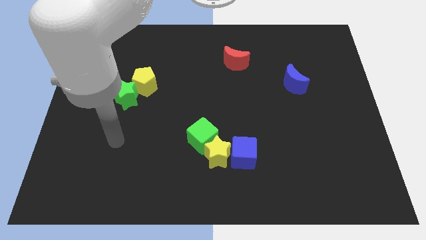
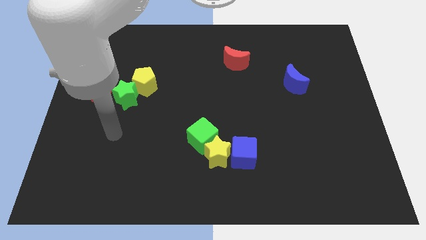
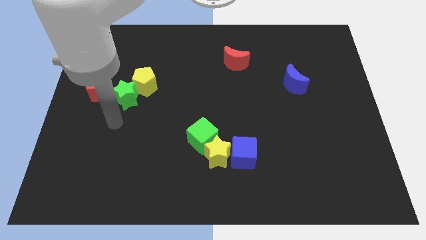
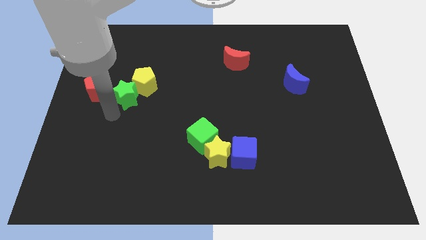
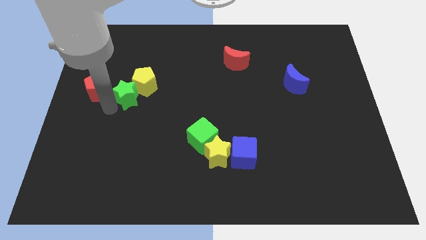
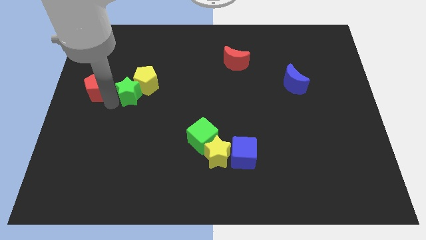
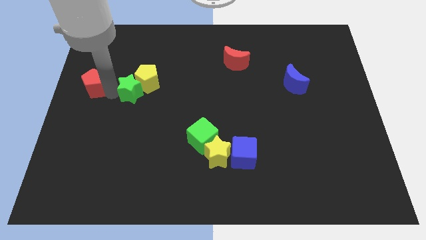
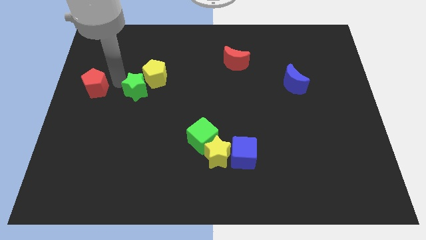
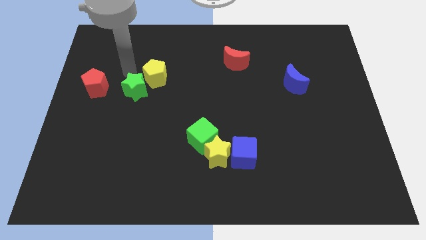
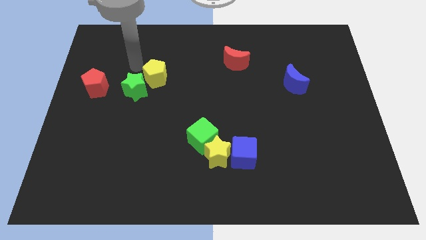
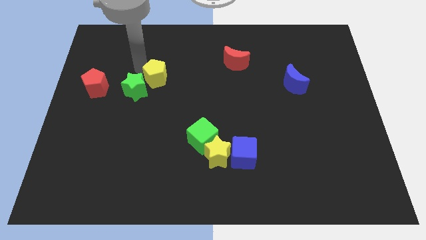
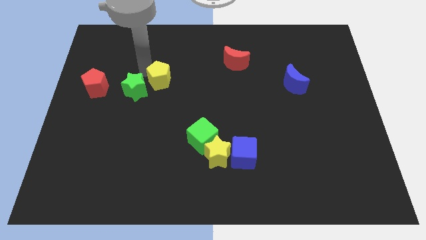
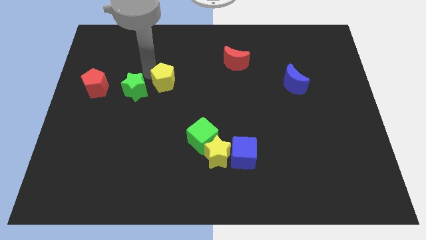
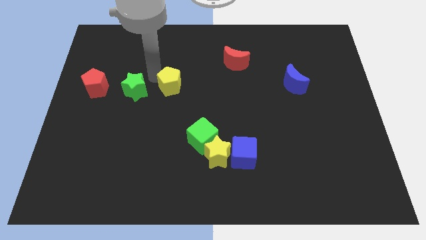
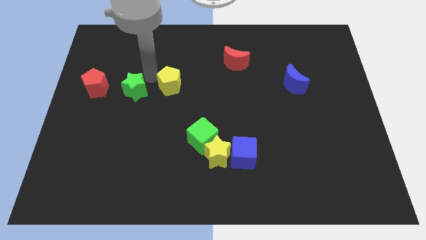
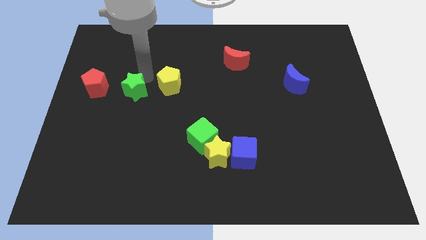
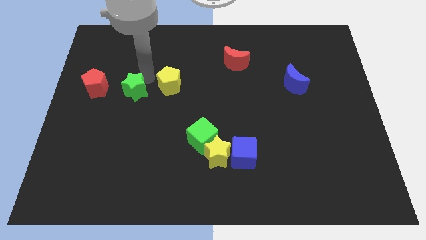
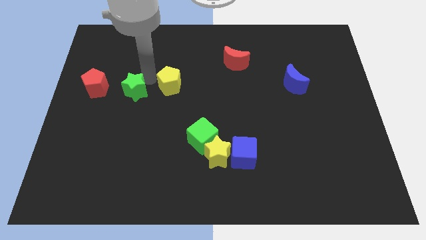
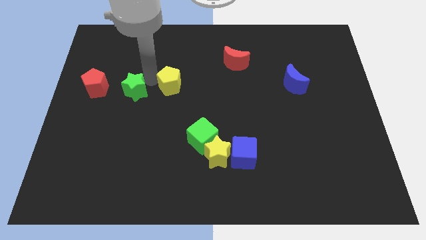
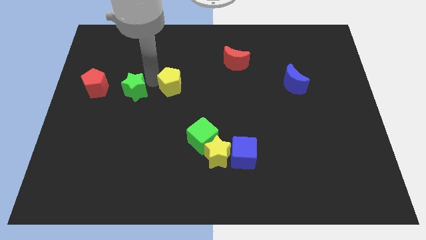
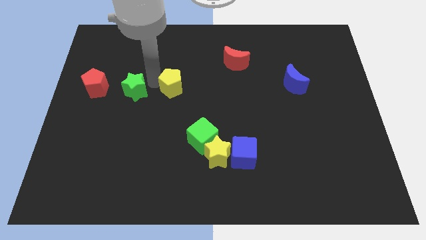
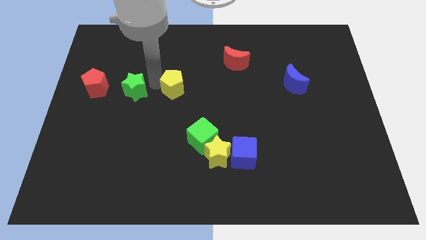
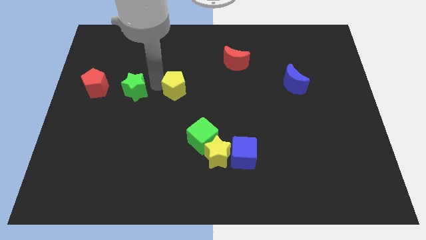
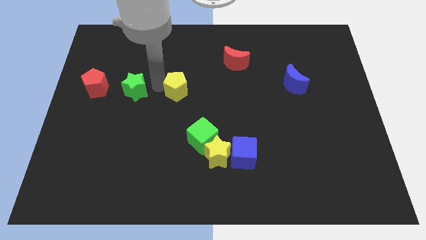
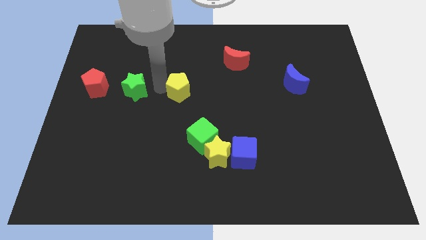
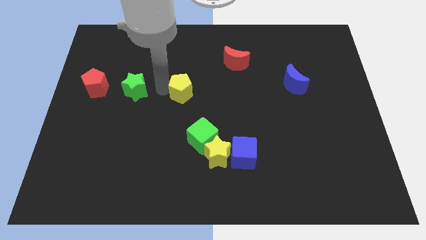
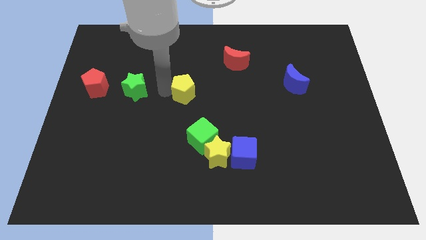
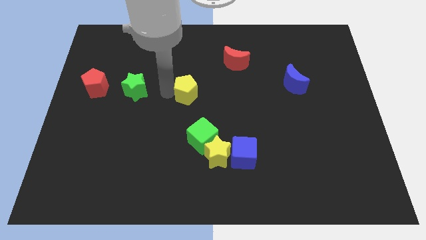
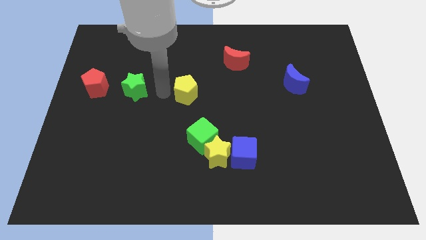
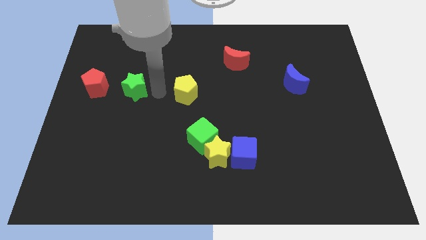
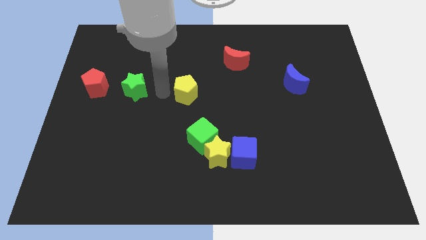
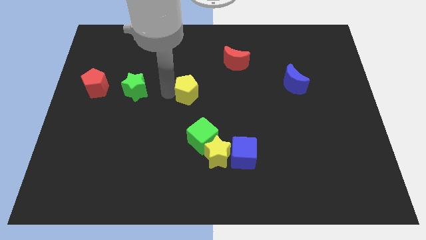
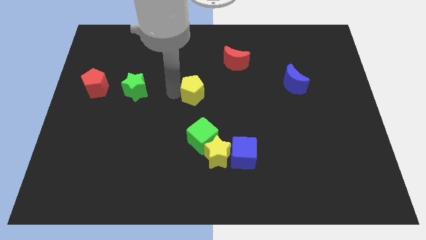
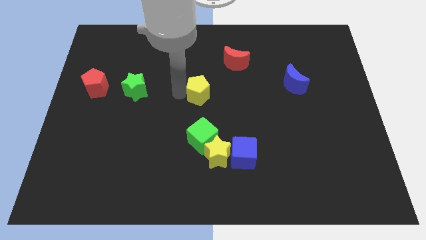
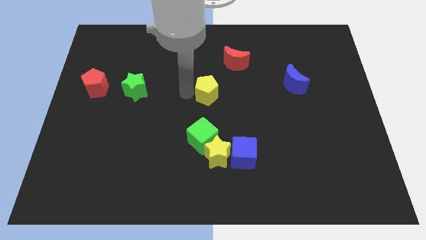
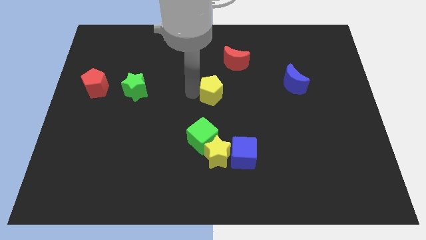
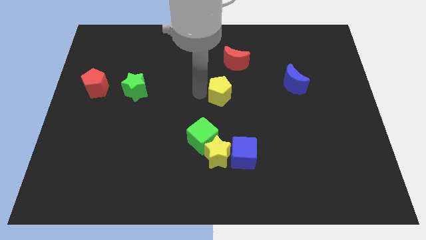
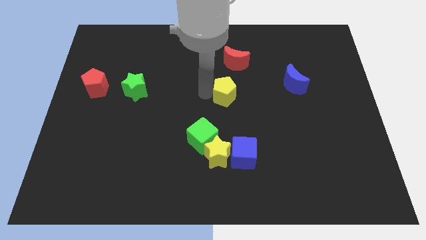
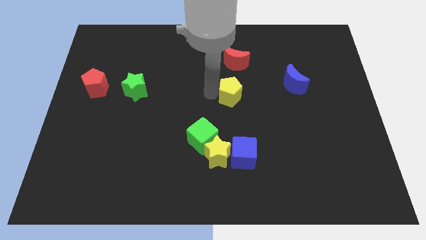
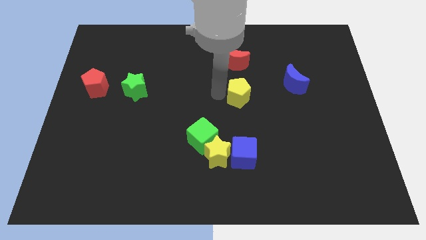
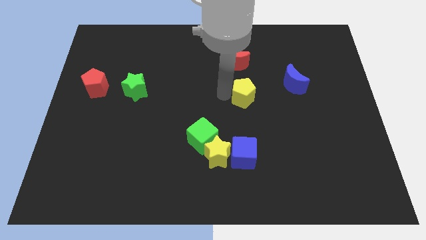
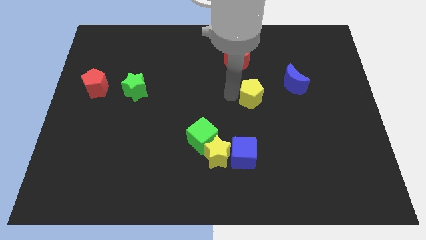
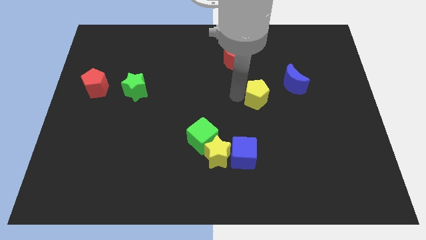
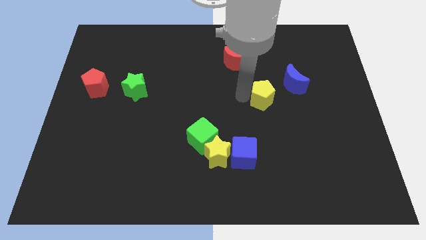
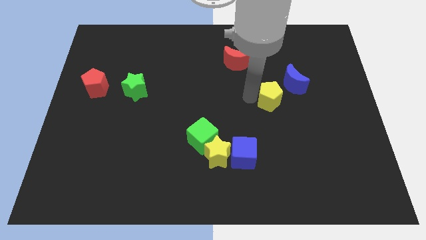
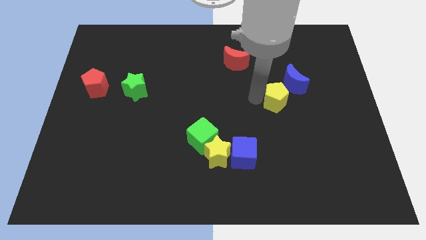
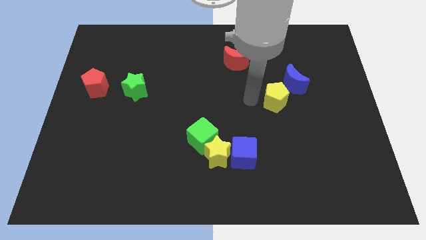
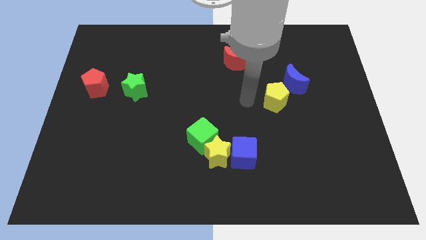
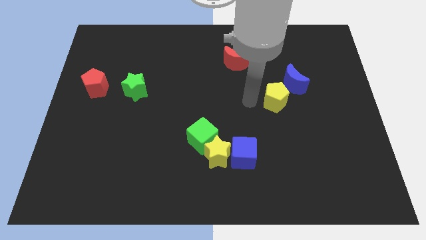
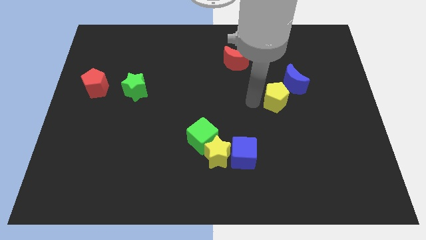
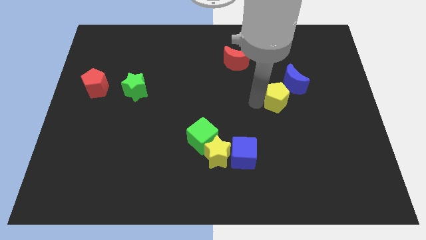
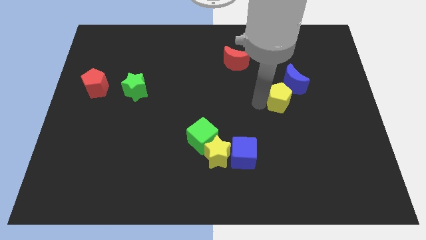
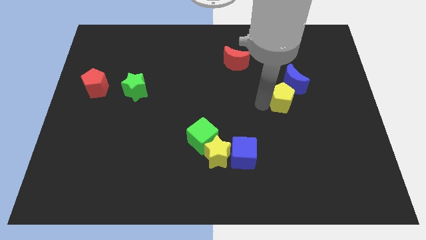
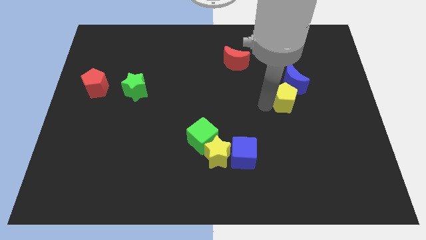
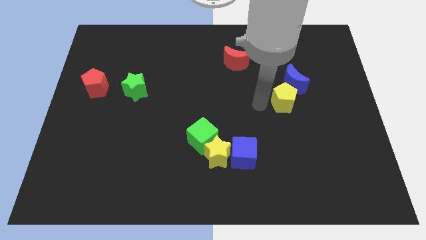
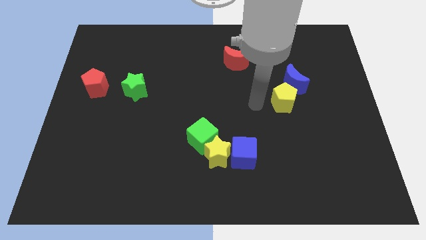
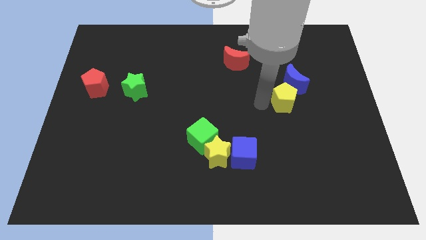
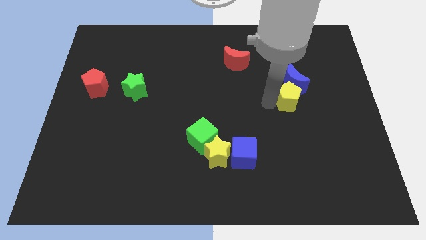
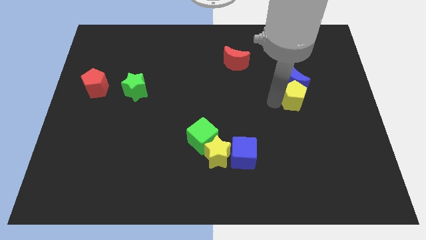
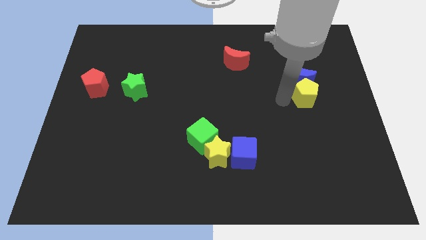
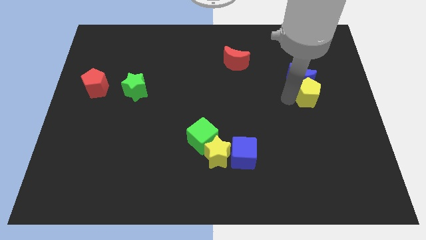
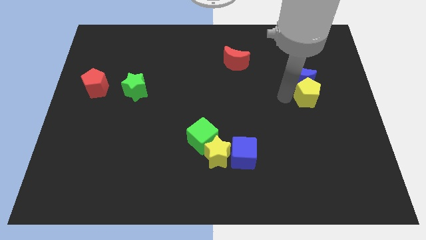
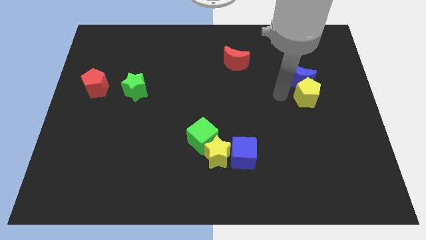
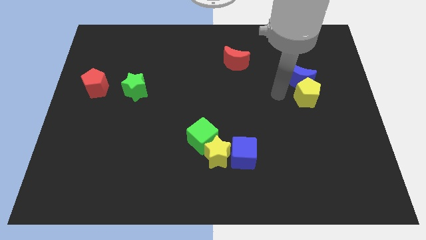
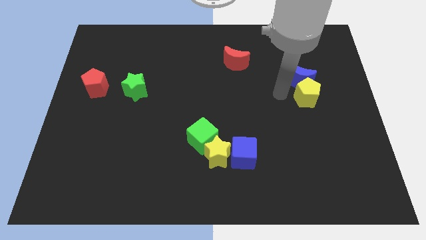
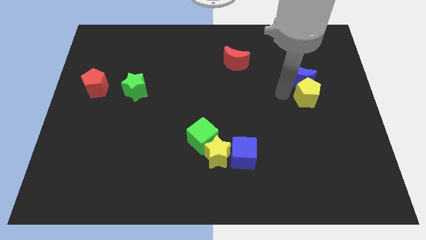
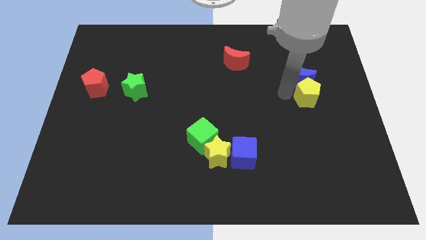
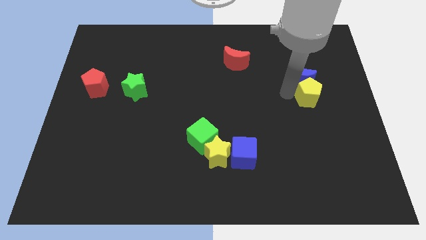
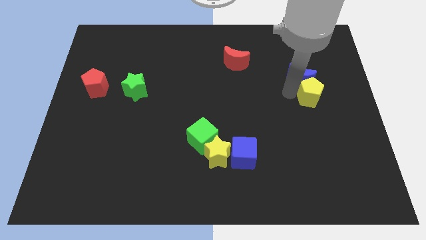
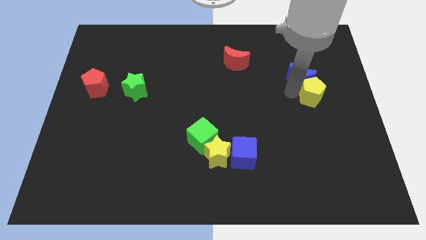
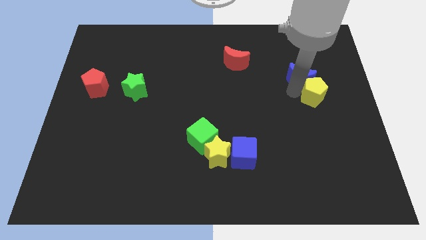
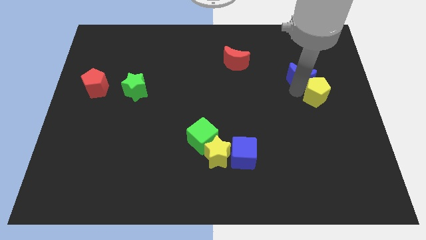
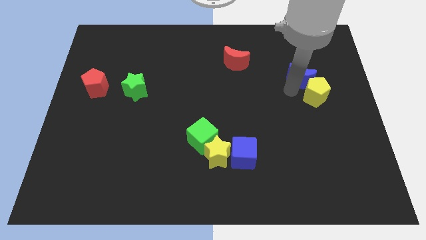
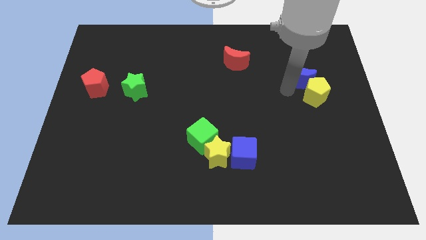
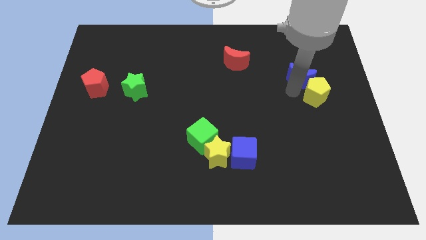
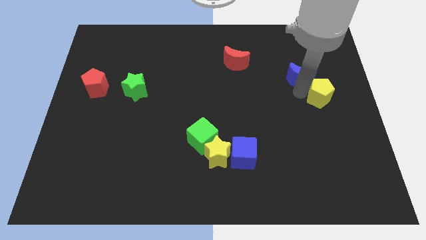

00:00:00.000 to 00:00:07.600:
move the yellow pentagon to the right side
